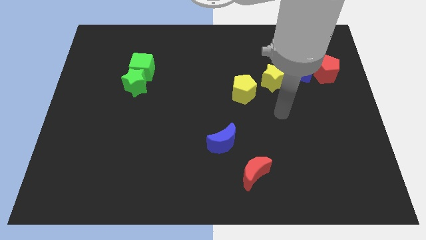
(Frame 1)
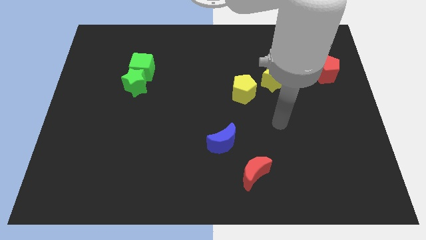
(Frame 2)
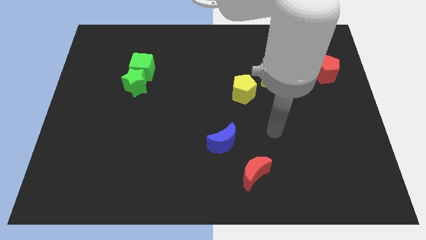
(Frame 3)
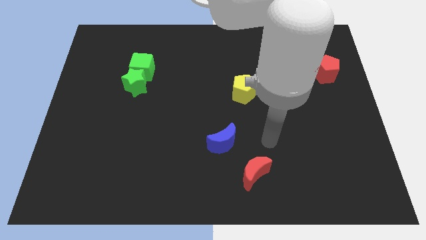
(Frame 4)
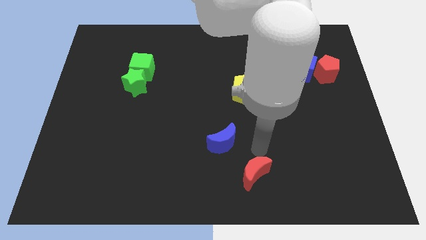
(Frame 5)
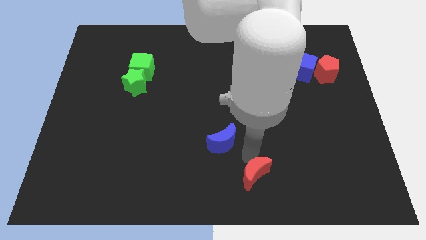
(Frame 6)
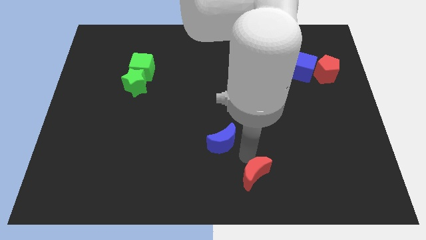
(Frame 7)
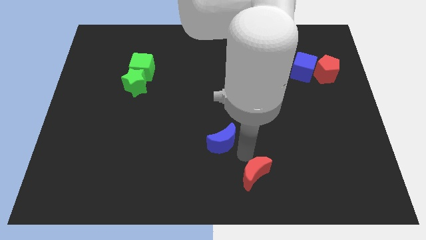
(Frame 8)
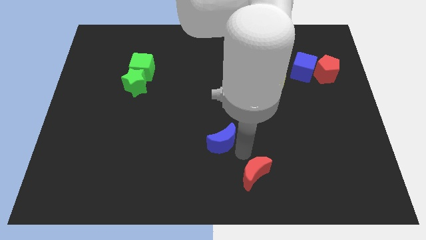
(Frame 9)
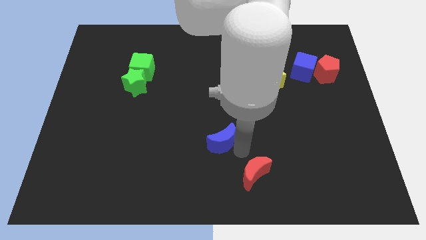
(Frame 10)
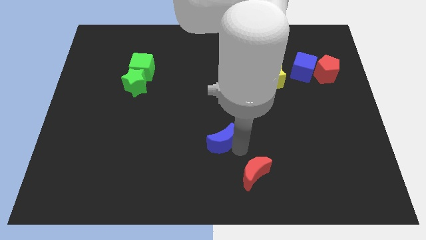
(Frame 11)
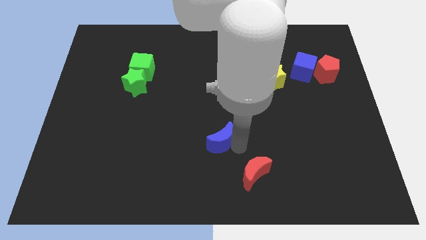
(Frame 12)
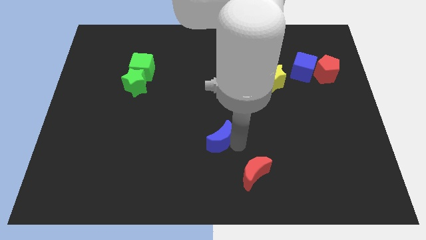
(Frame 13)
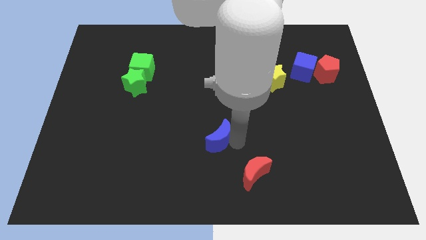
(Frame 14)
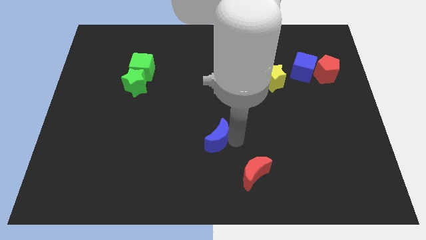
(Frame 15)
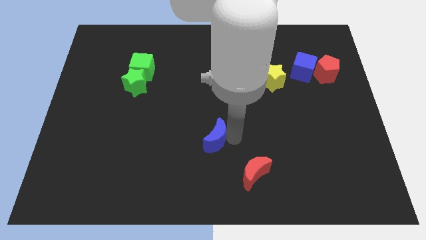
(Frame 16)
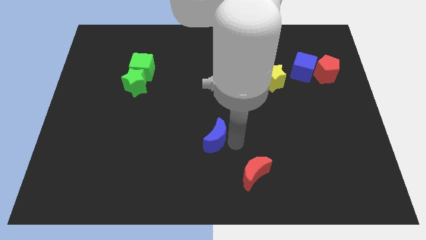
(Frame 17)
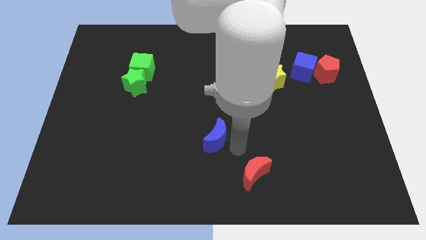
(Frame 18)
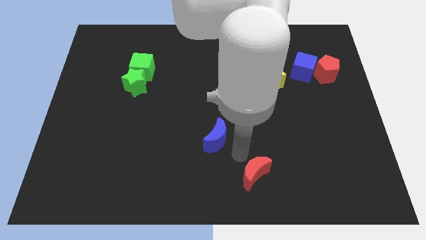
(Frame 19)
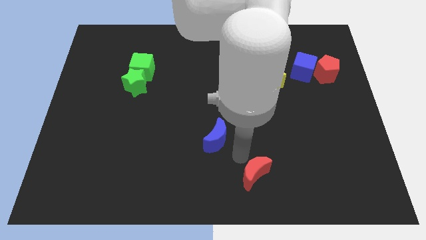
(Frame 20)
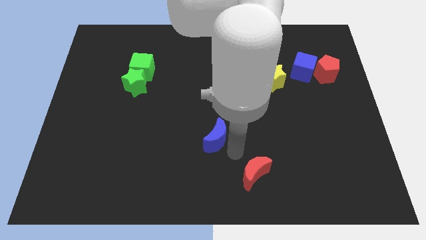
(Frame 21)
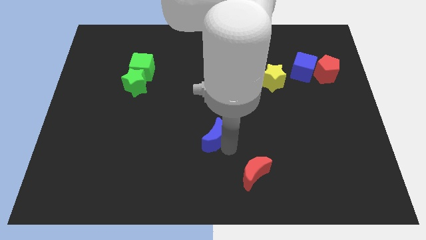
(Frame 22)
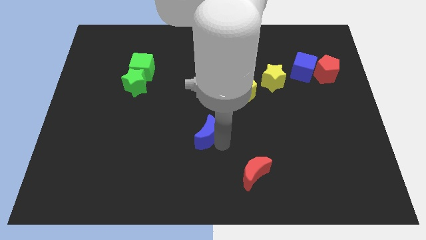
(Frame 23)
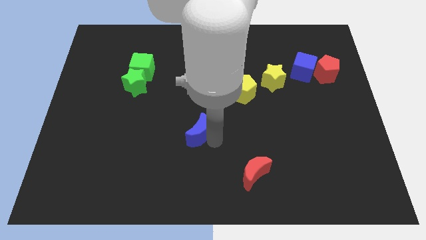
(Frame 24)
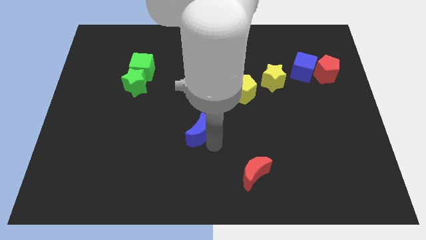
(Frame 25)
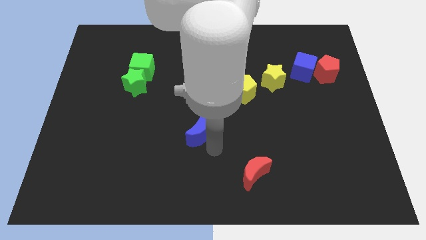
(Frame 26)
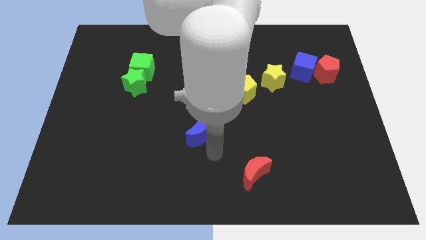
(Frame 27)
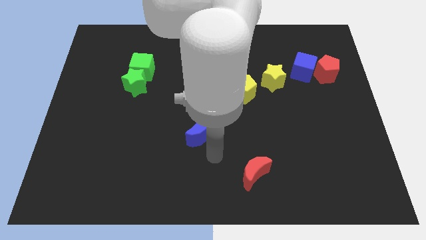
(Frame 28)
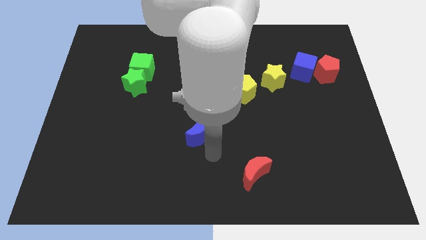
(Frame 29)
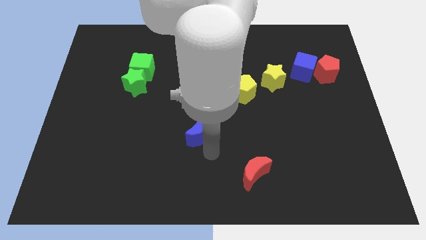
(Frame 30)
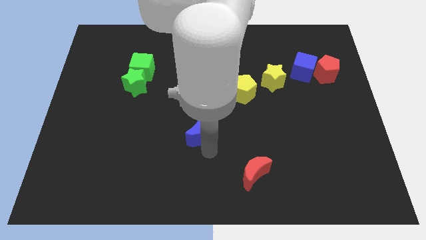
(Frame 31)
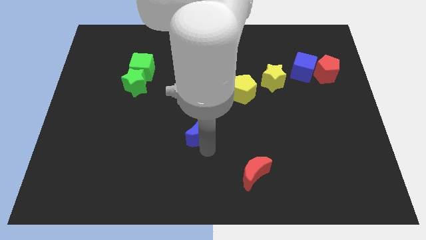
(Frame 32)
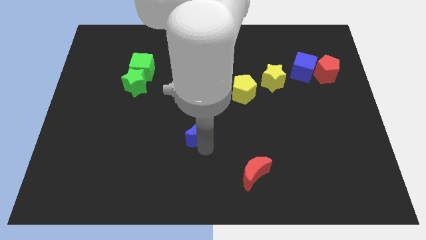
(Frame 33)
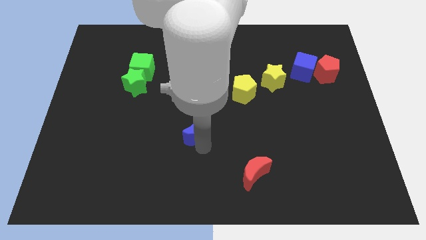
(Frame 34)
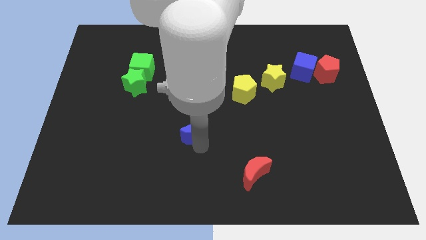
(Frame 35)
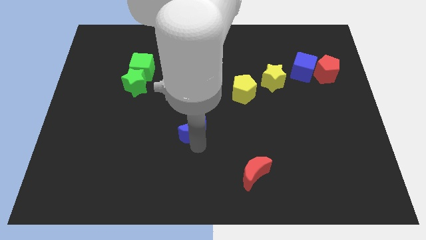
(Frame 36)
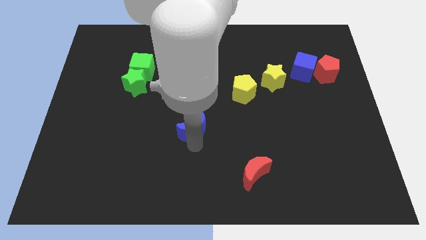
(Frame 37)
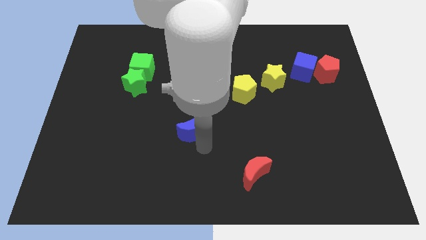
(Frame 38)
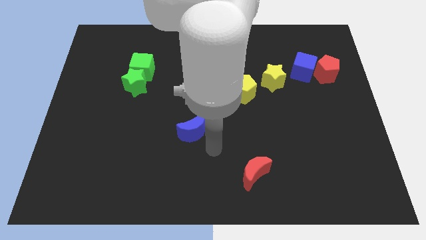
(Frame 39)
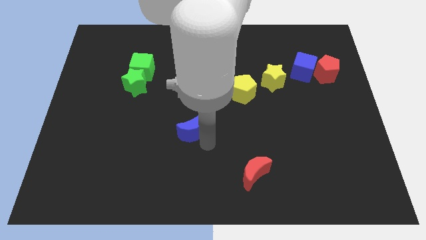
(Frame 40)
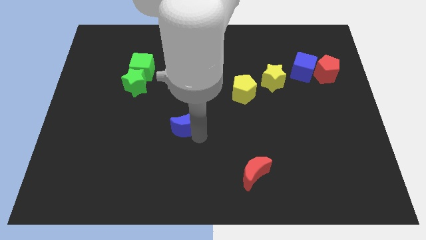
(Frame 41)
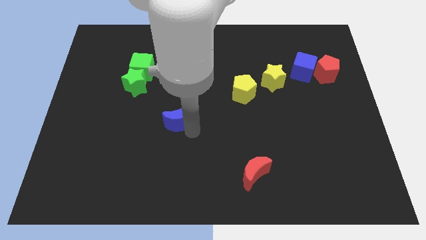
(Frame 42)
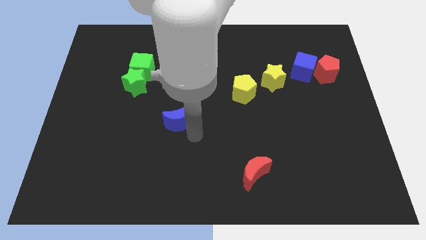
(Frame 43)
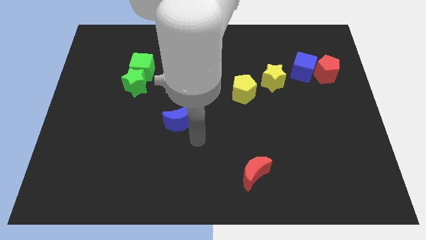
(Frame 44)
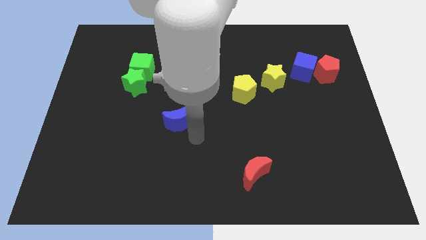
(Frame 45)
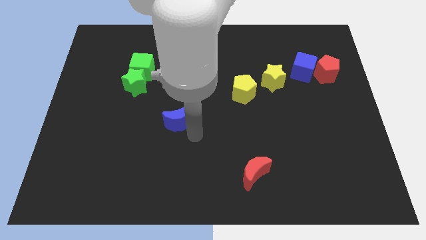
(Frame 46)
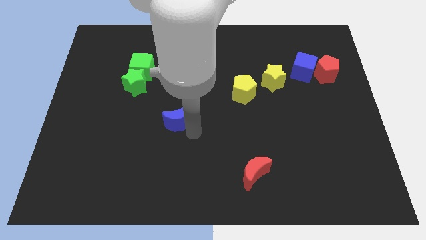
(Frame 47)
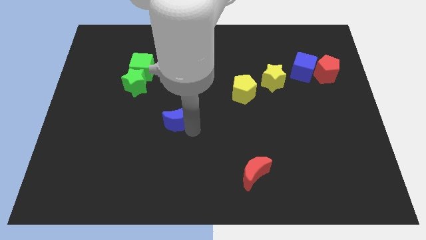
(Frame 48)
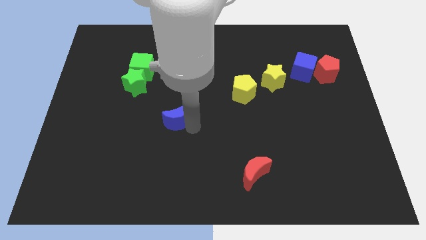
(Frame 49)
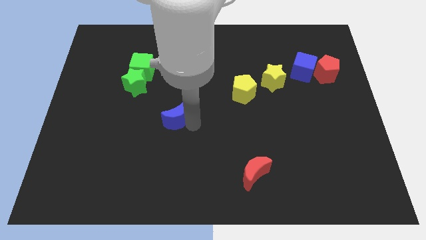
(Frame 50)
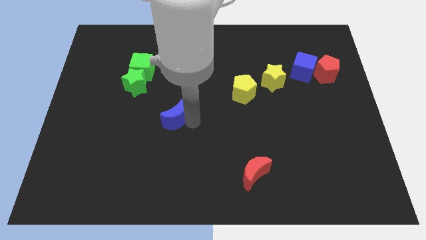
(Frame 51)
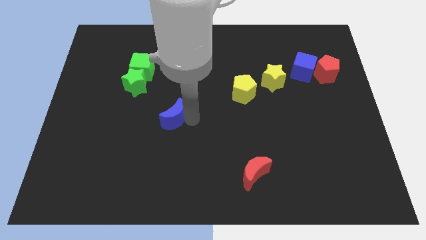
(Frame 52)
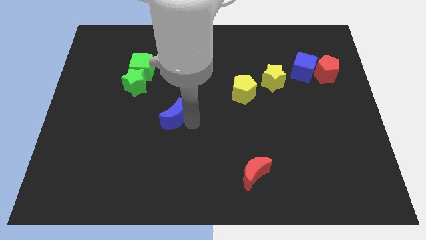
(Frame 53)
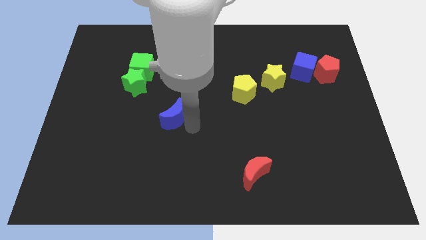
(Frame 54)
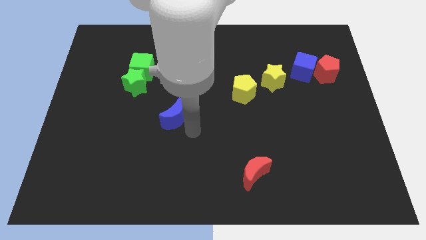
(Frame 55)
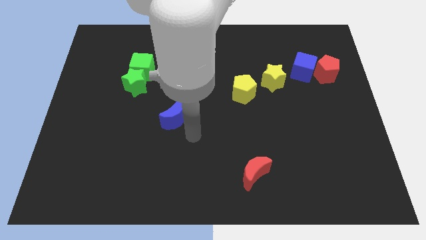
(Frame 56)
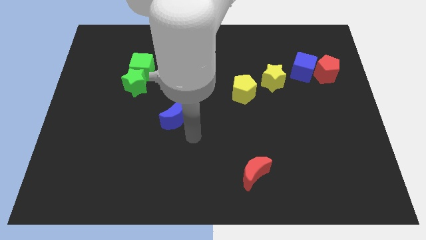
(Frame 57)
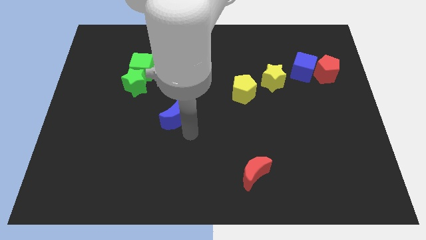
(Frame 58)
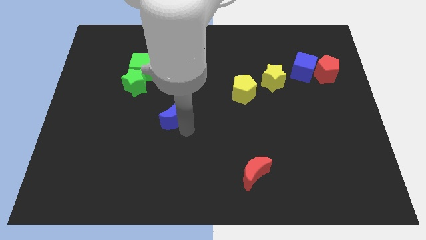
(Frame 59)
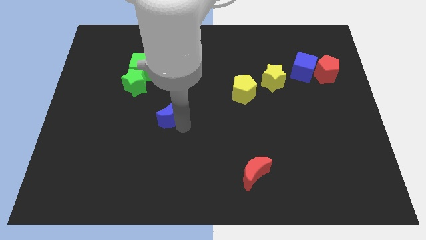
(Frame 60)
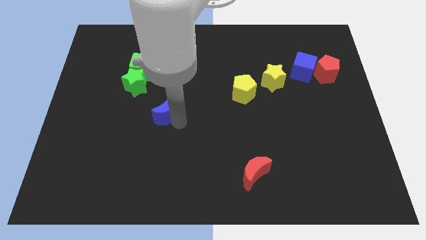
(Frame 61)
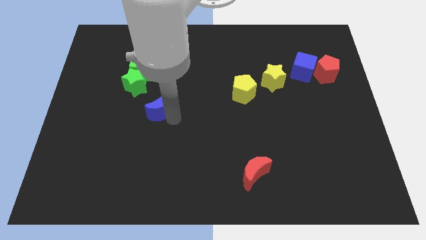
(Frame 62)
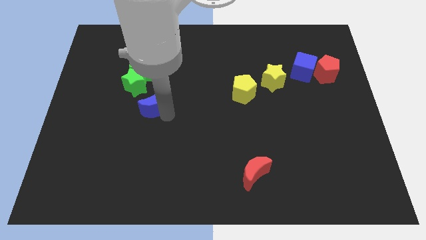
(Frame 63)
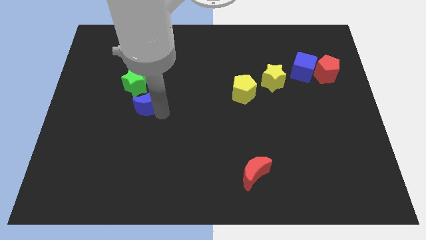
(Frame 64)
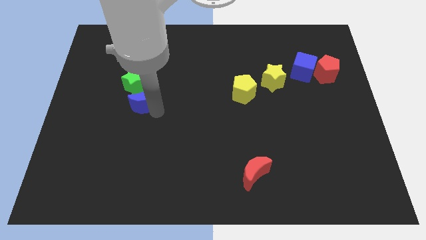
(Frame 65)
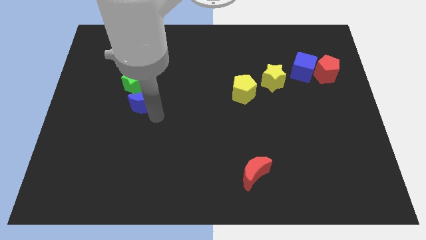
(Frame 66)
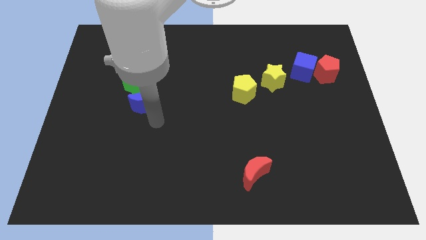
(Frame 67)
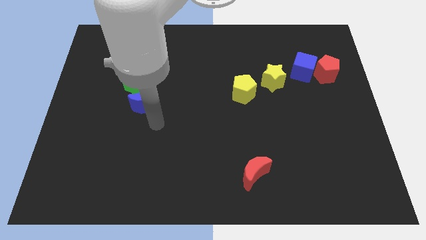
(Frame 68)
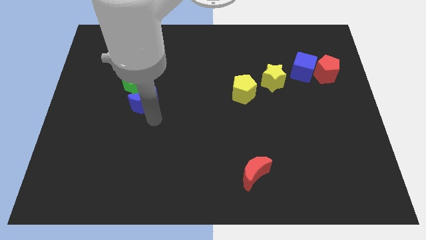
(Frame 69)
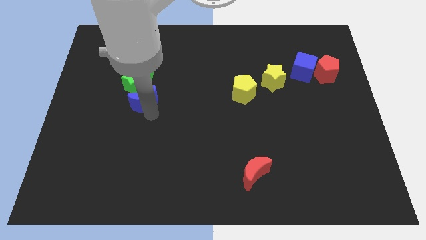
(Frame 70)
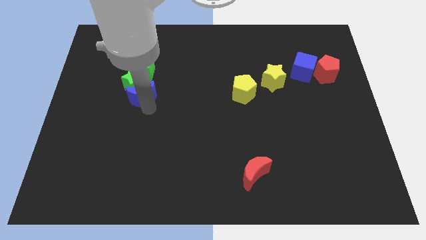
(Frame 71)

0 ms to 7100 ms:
move the blue moon to the green star

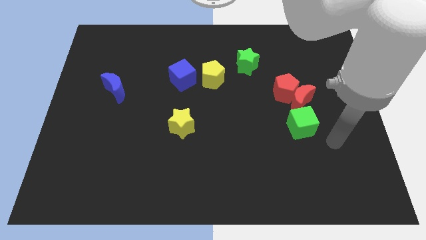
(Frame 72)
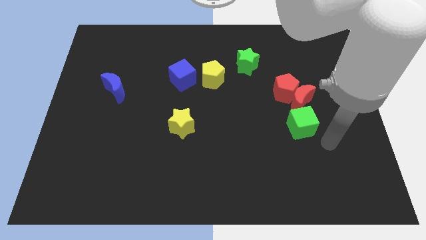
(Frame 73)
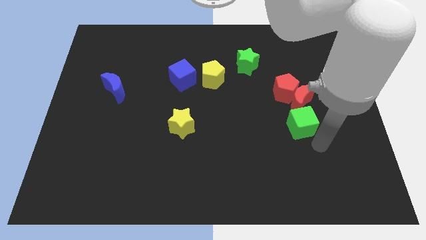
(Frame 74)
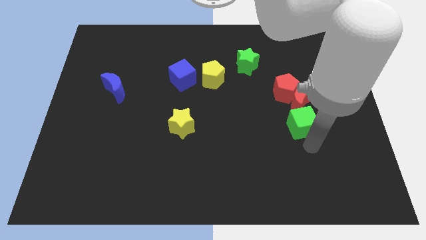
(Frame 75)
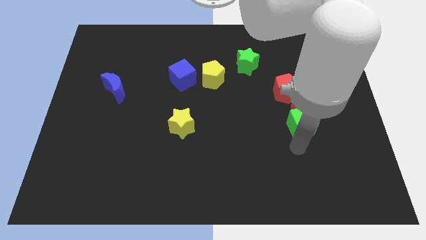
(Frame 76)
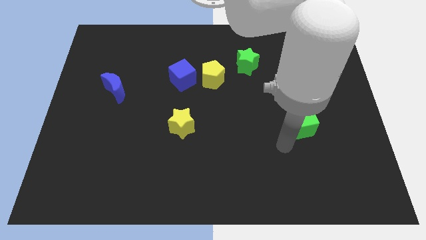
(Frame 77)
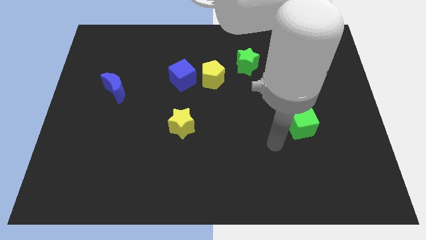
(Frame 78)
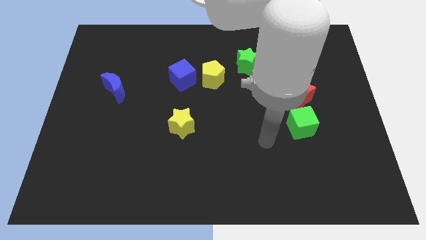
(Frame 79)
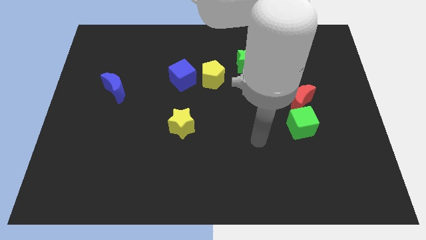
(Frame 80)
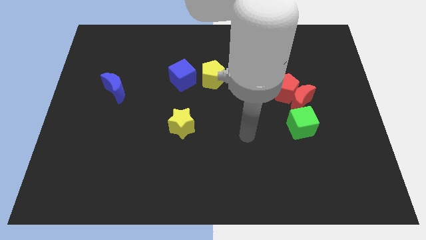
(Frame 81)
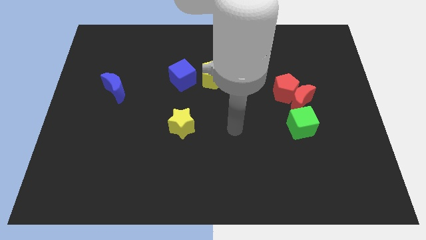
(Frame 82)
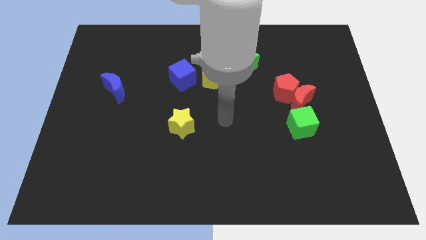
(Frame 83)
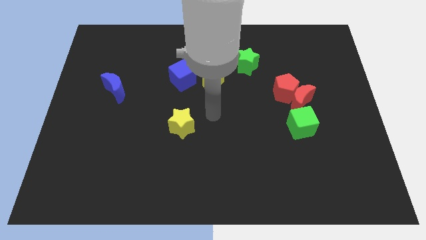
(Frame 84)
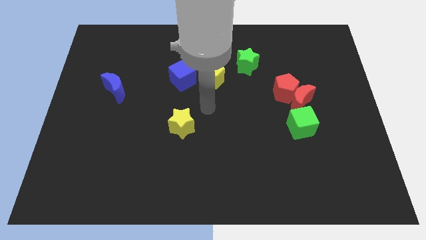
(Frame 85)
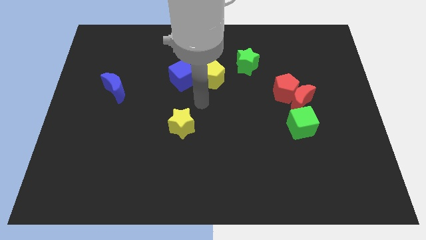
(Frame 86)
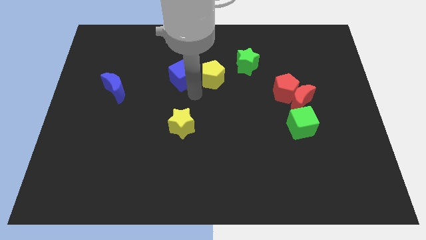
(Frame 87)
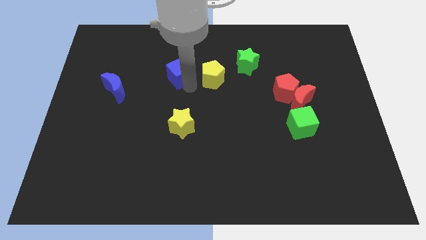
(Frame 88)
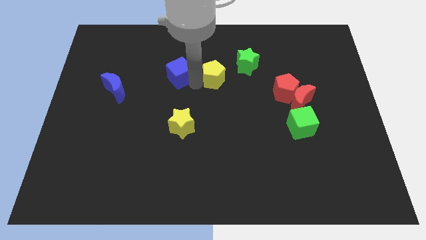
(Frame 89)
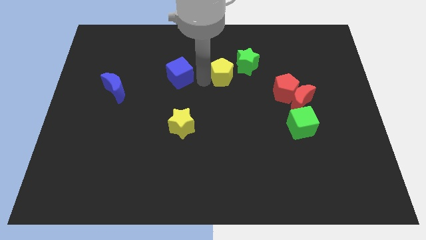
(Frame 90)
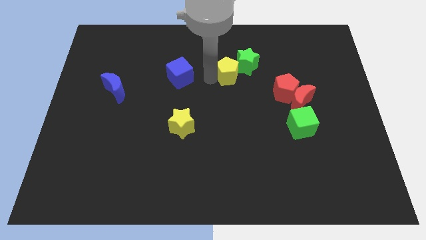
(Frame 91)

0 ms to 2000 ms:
move the yellow pentagon close to the green star
